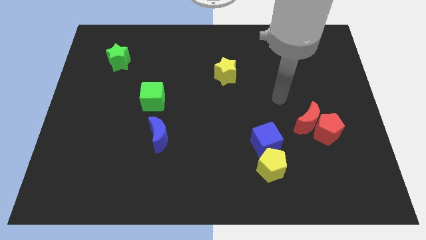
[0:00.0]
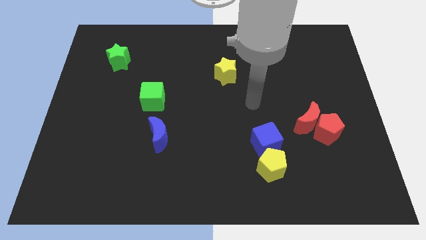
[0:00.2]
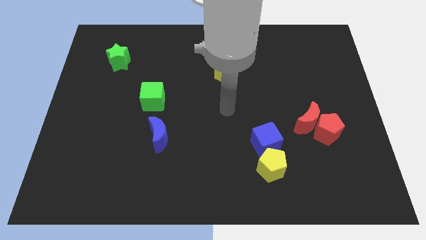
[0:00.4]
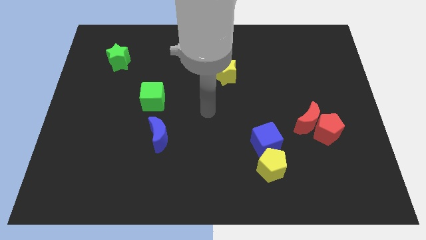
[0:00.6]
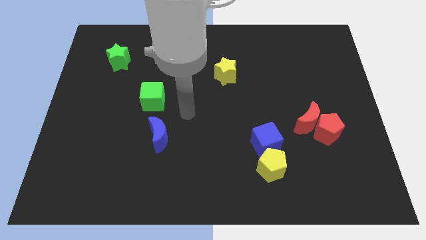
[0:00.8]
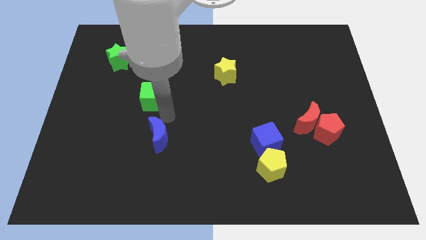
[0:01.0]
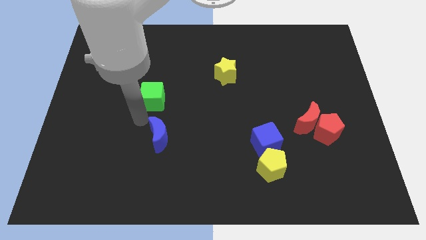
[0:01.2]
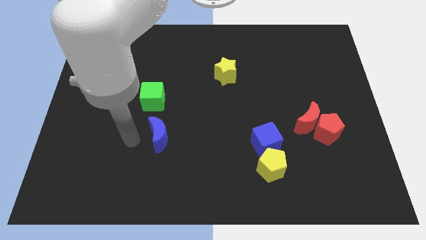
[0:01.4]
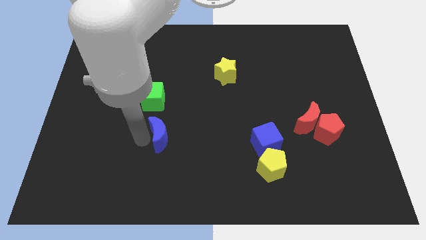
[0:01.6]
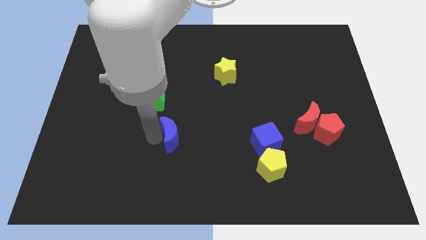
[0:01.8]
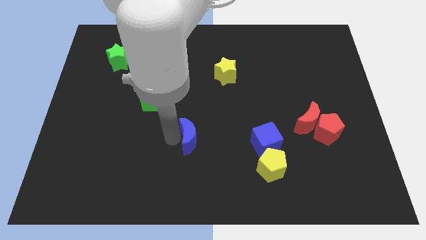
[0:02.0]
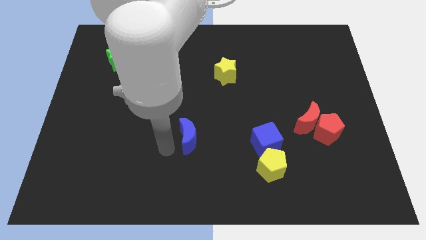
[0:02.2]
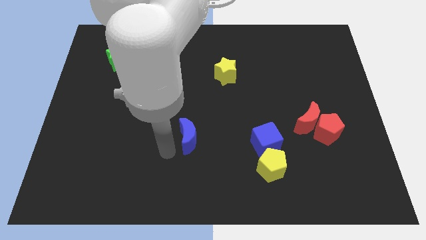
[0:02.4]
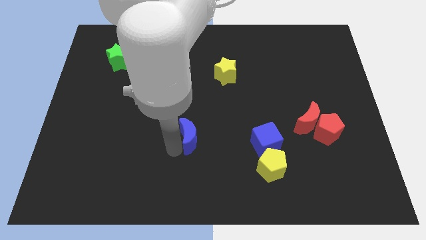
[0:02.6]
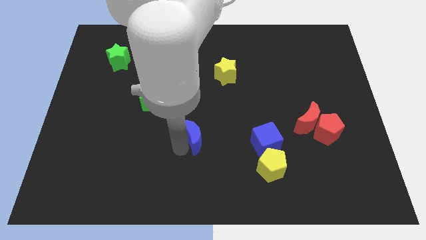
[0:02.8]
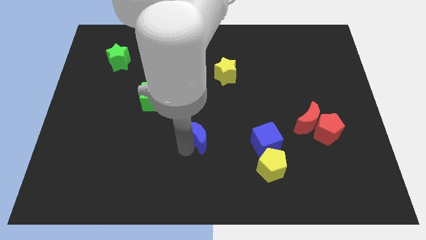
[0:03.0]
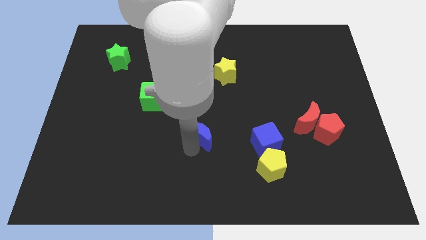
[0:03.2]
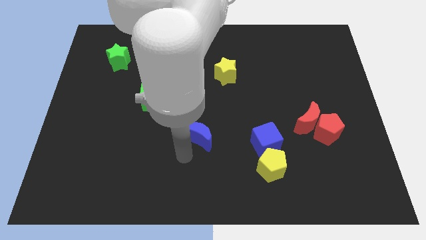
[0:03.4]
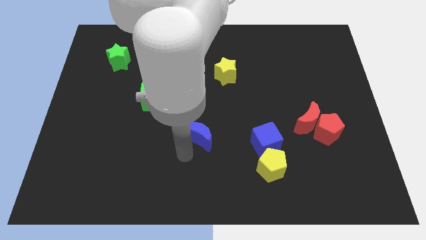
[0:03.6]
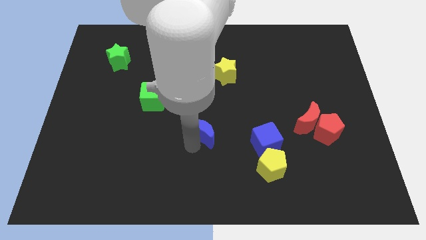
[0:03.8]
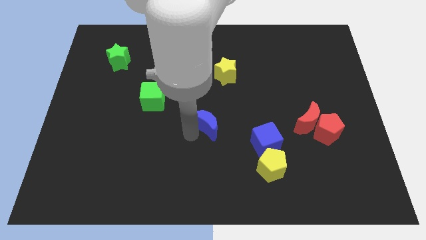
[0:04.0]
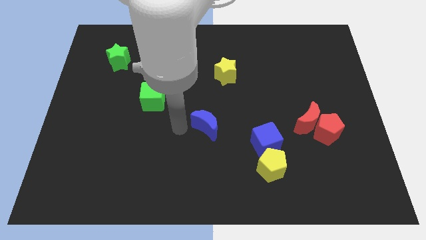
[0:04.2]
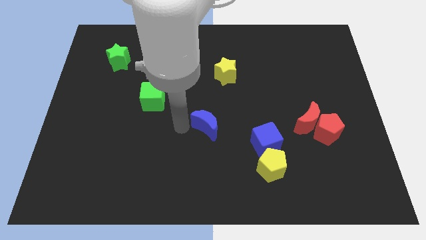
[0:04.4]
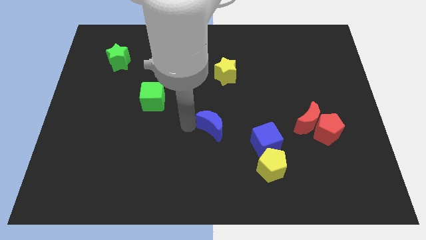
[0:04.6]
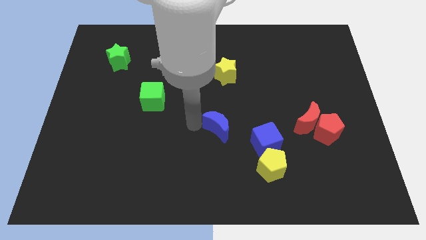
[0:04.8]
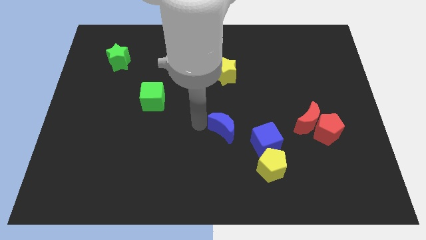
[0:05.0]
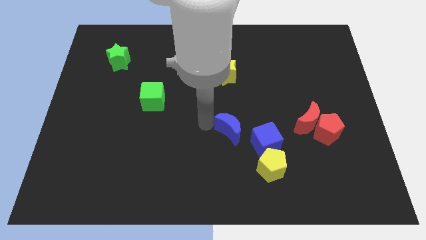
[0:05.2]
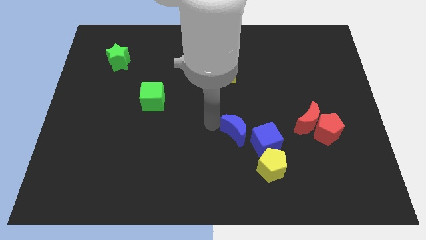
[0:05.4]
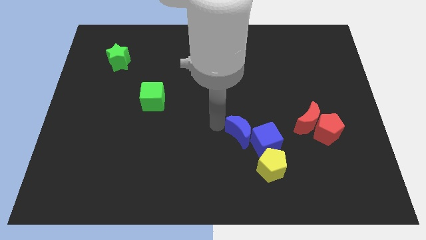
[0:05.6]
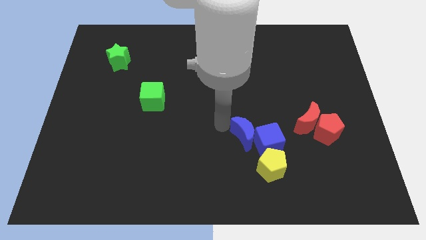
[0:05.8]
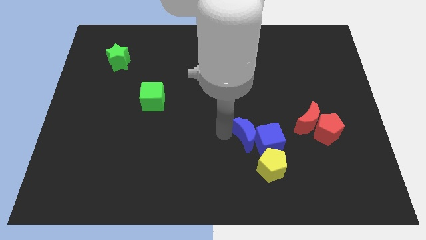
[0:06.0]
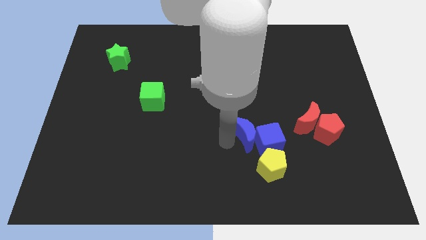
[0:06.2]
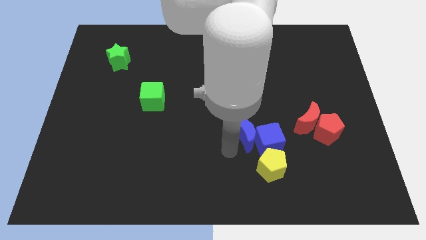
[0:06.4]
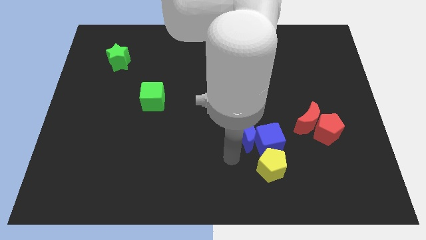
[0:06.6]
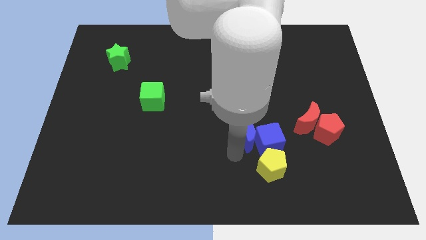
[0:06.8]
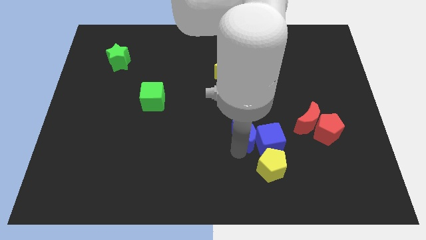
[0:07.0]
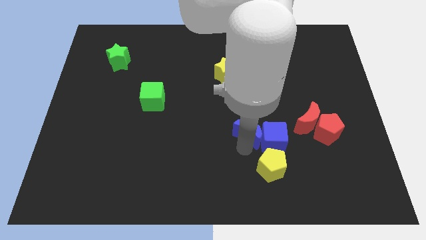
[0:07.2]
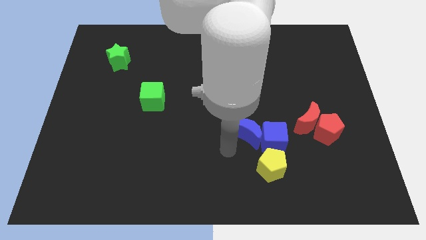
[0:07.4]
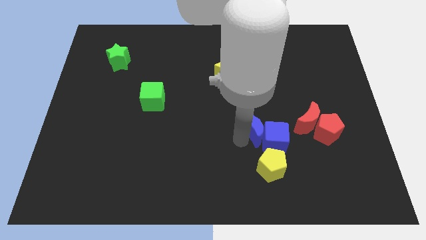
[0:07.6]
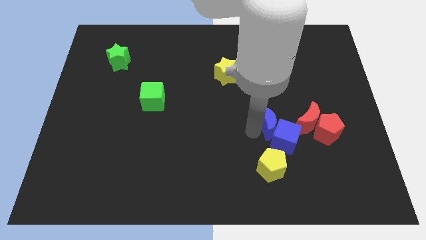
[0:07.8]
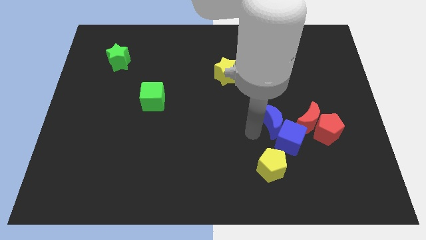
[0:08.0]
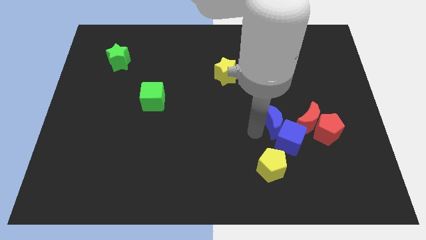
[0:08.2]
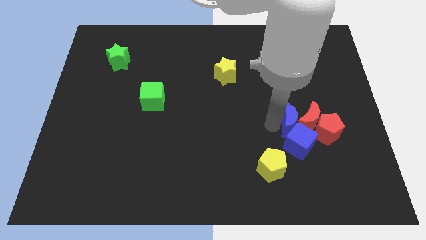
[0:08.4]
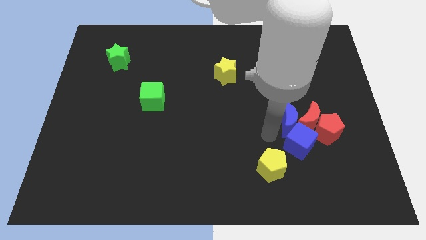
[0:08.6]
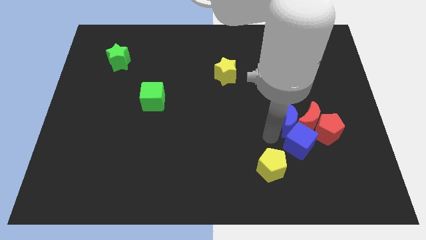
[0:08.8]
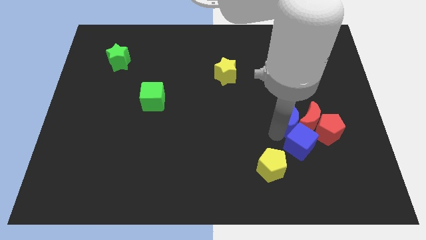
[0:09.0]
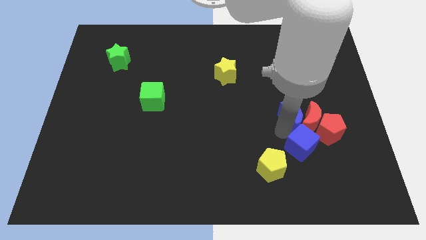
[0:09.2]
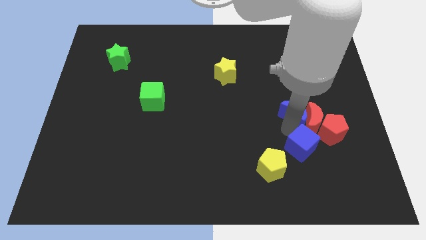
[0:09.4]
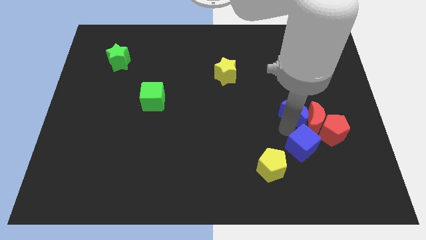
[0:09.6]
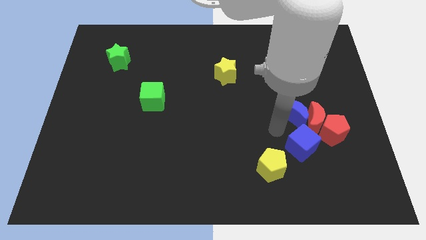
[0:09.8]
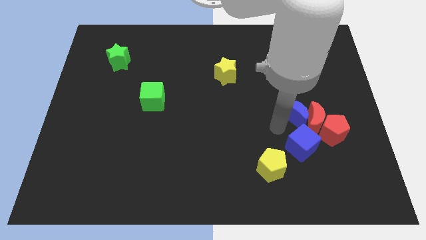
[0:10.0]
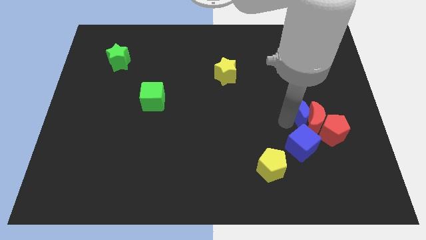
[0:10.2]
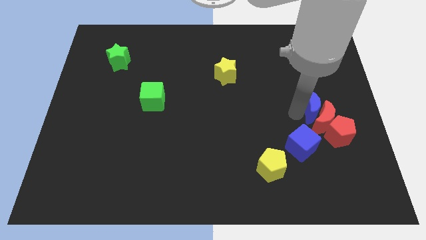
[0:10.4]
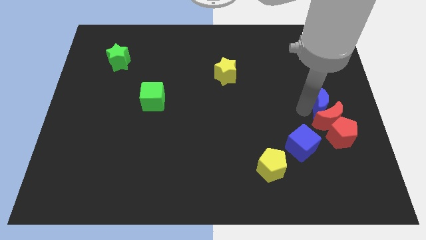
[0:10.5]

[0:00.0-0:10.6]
slide the blue moon to the top right of the red moon

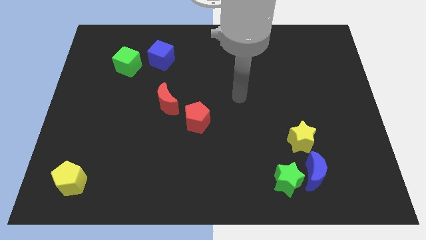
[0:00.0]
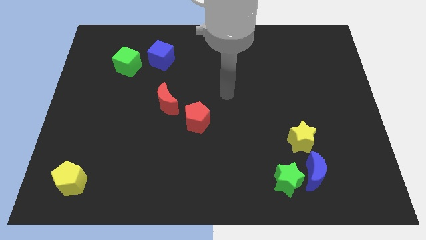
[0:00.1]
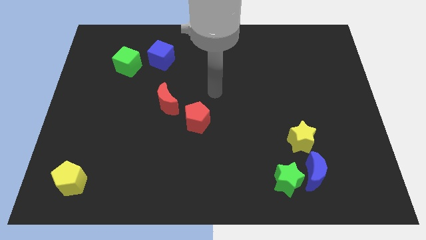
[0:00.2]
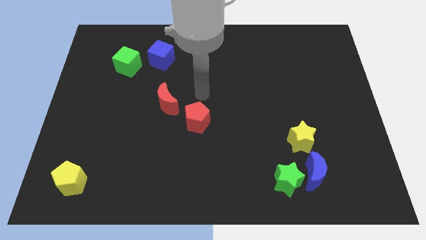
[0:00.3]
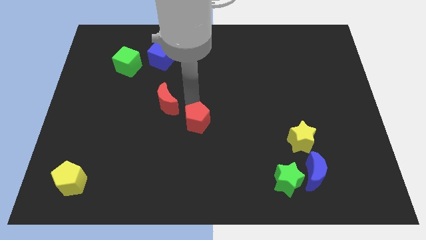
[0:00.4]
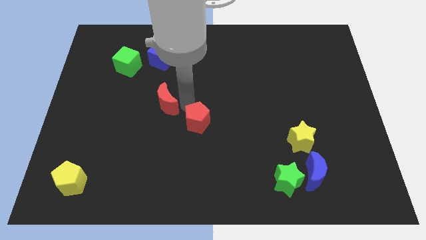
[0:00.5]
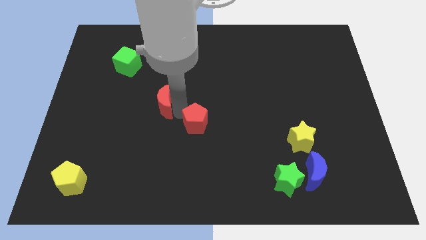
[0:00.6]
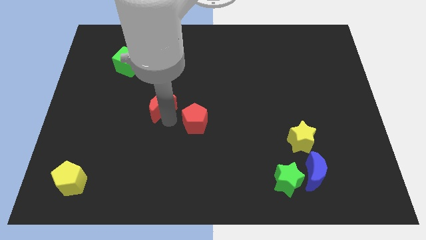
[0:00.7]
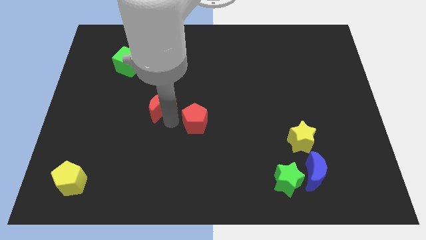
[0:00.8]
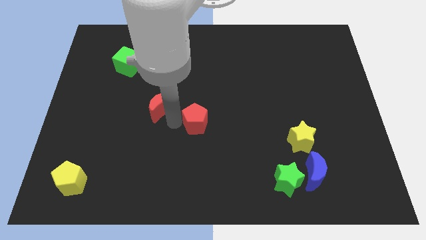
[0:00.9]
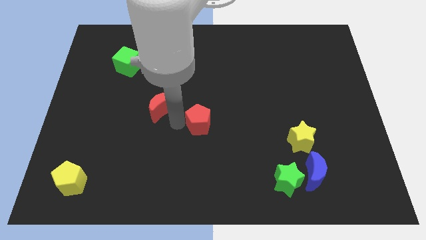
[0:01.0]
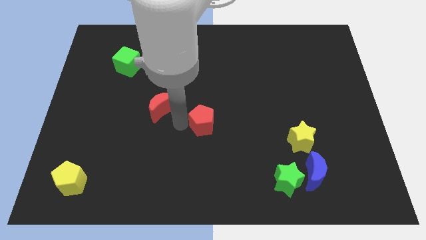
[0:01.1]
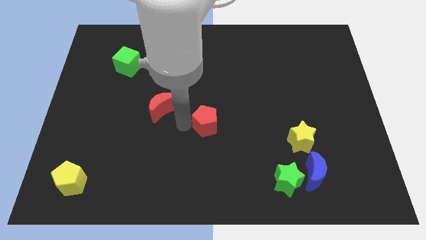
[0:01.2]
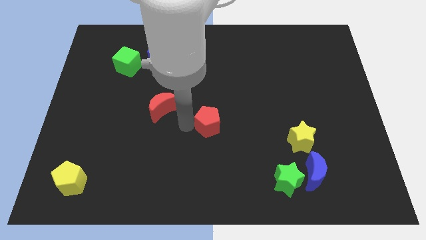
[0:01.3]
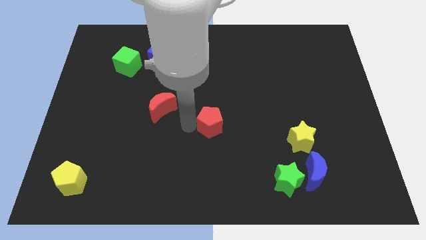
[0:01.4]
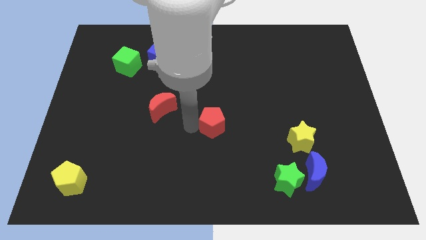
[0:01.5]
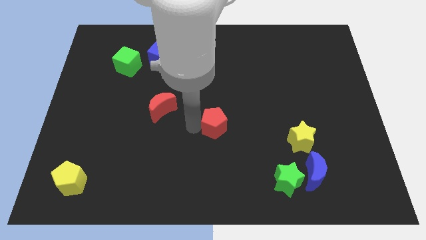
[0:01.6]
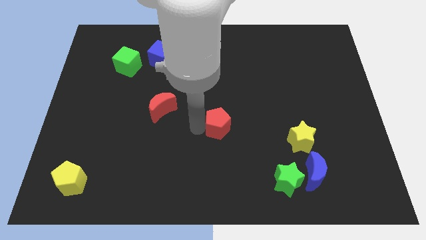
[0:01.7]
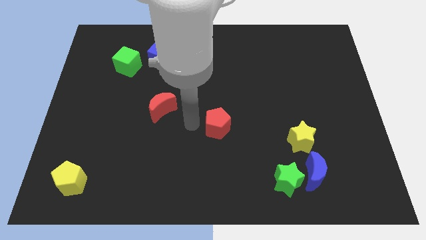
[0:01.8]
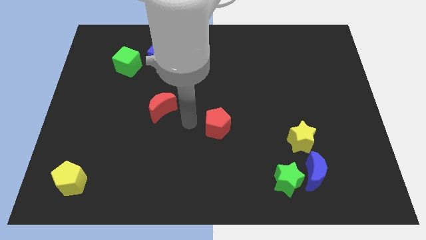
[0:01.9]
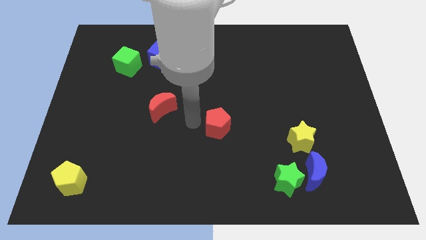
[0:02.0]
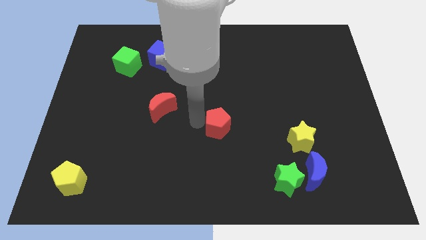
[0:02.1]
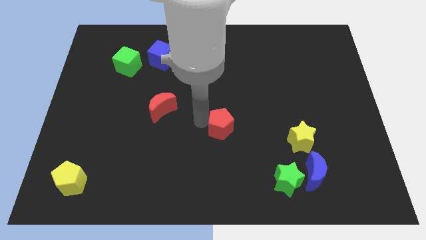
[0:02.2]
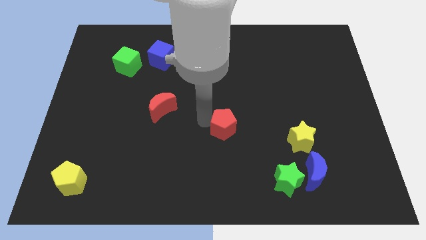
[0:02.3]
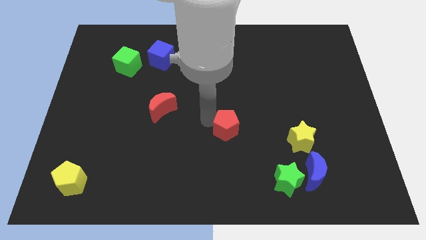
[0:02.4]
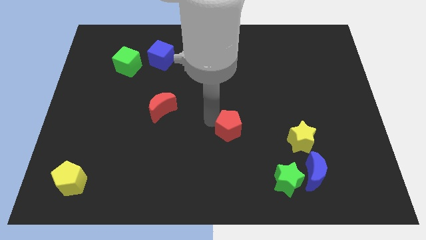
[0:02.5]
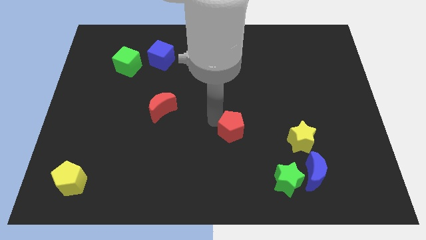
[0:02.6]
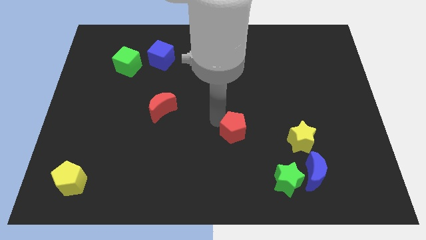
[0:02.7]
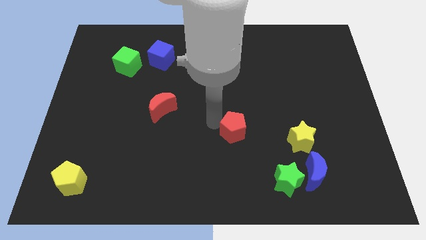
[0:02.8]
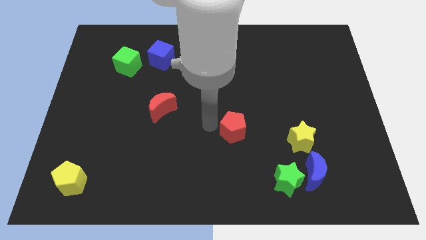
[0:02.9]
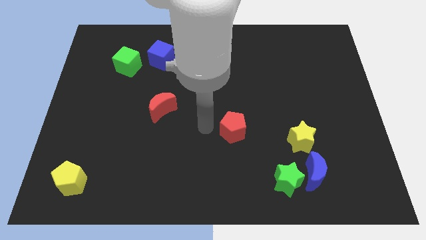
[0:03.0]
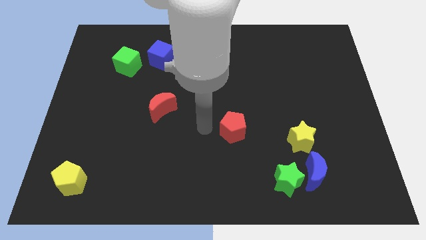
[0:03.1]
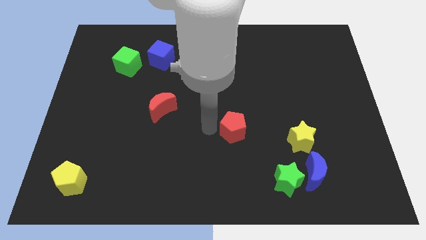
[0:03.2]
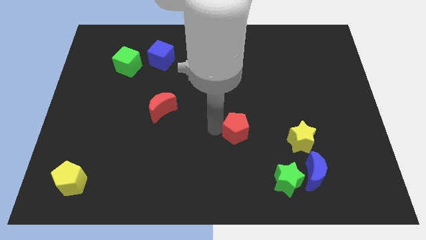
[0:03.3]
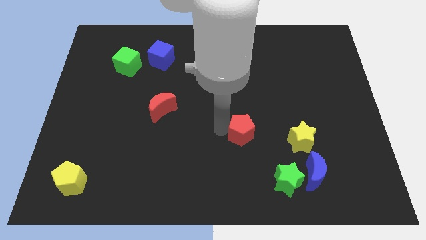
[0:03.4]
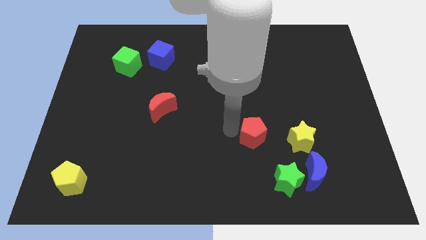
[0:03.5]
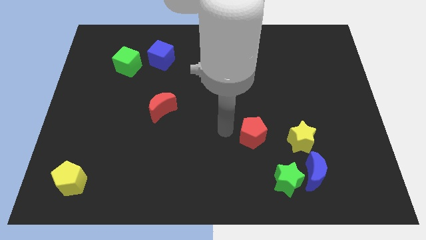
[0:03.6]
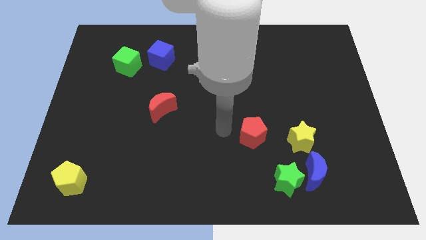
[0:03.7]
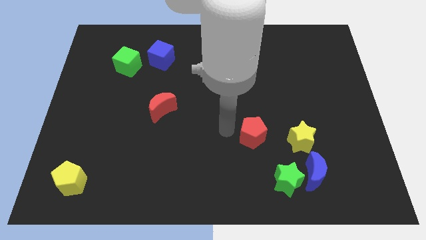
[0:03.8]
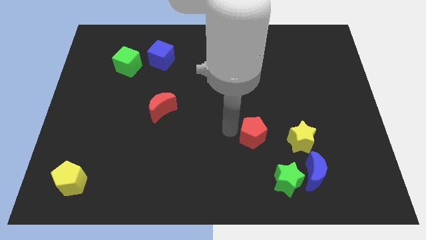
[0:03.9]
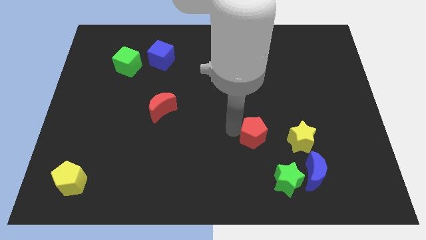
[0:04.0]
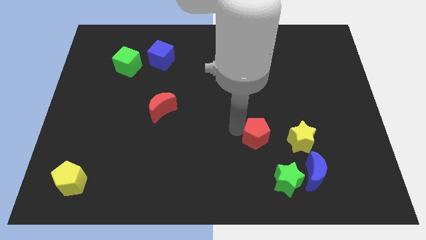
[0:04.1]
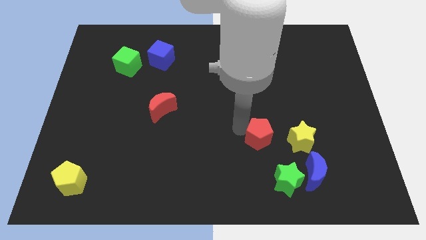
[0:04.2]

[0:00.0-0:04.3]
slide the red pentagon to the top of the green star
